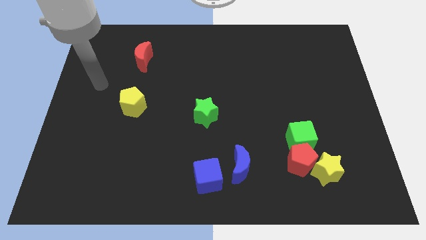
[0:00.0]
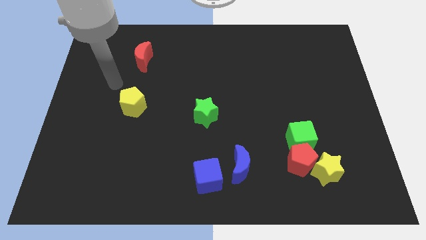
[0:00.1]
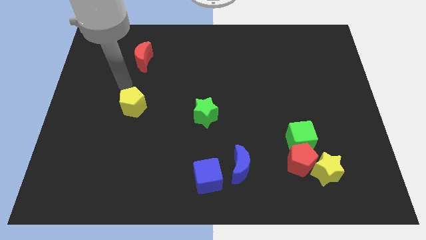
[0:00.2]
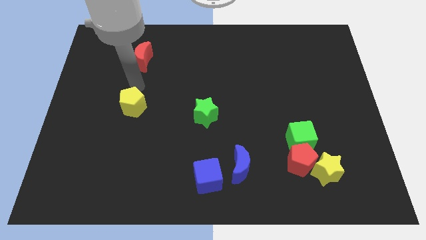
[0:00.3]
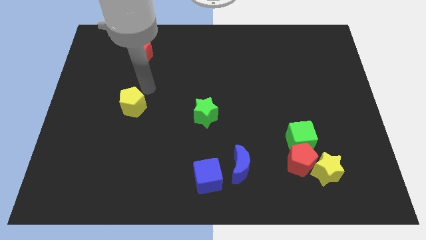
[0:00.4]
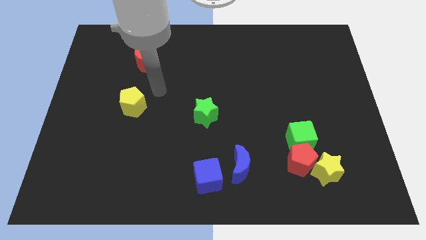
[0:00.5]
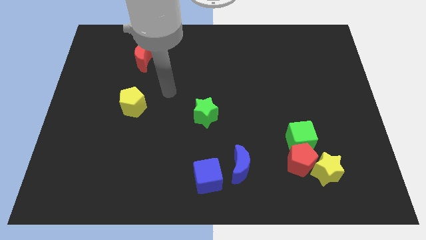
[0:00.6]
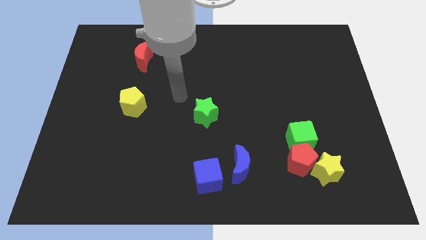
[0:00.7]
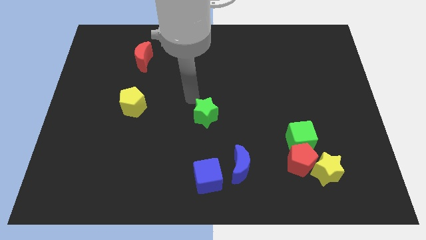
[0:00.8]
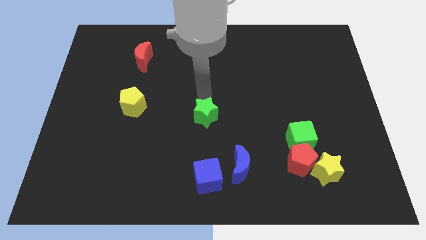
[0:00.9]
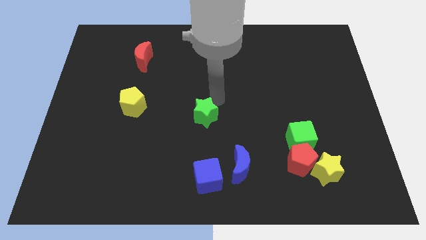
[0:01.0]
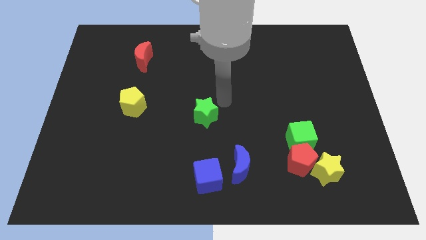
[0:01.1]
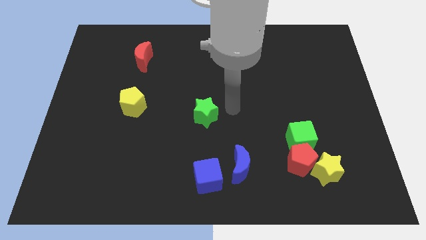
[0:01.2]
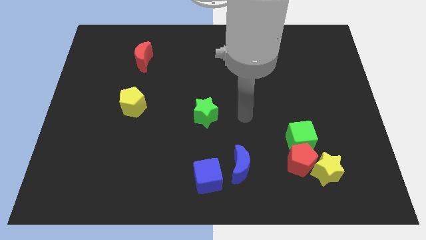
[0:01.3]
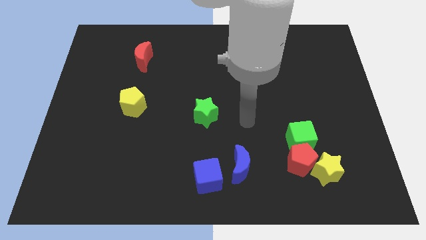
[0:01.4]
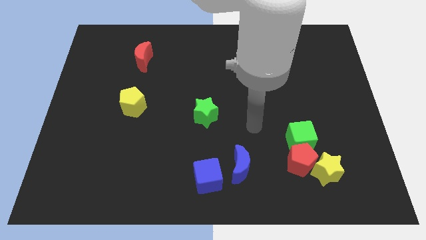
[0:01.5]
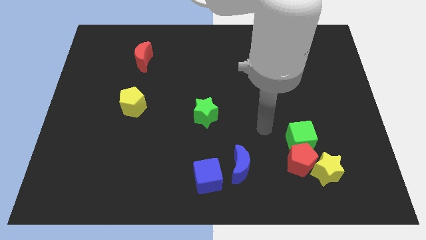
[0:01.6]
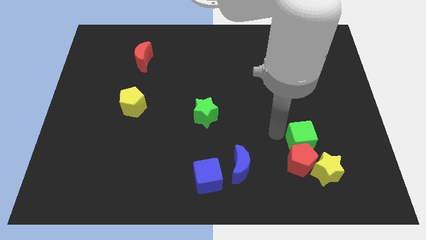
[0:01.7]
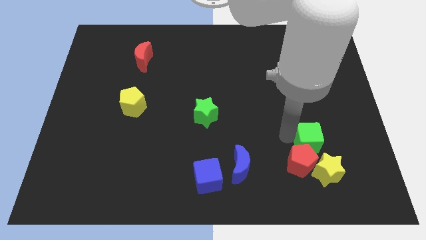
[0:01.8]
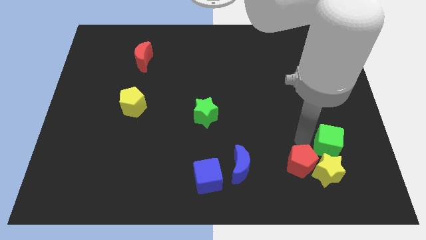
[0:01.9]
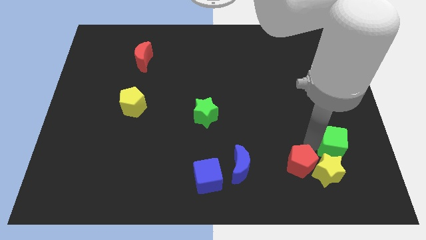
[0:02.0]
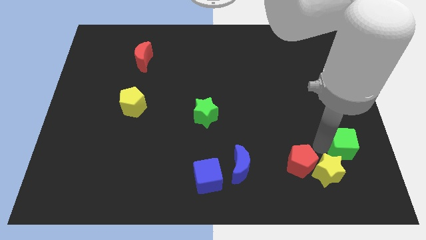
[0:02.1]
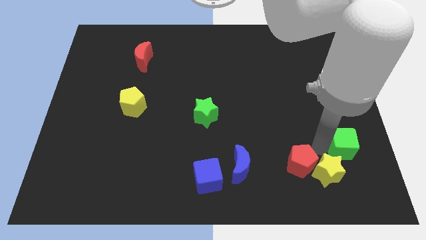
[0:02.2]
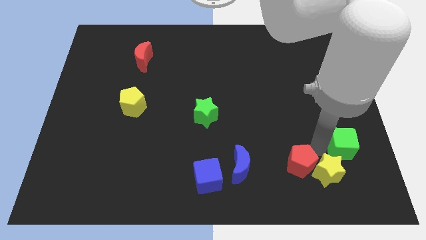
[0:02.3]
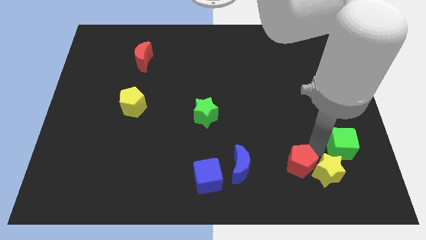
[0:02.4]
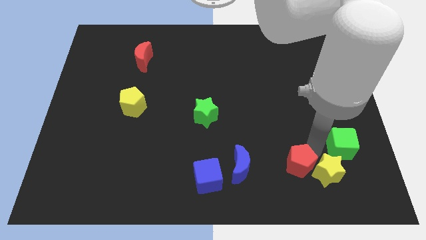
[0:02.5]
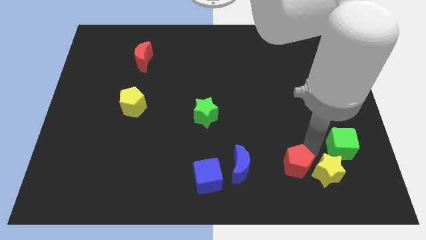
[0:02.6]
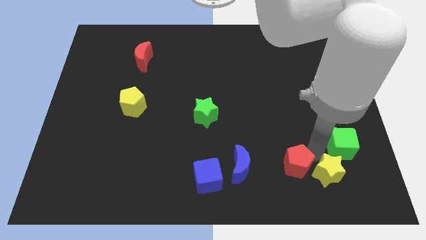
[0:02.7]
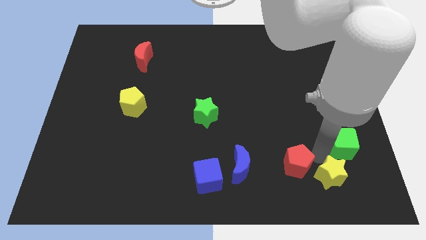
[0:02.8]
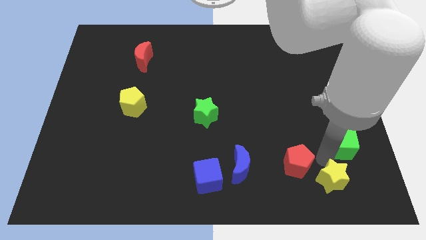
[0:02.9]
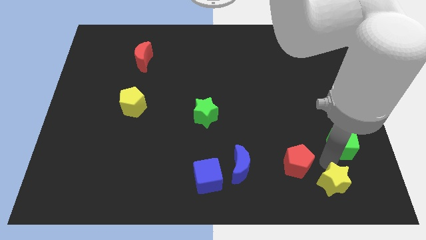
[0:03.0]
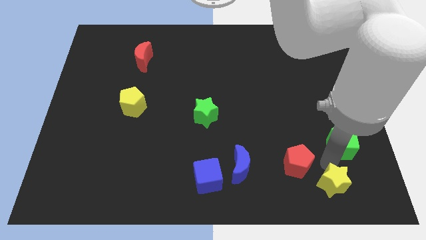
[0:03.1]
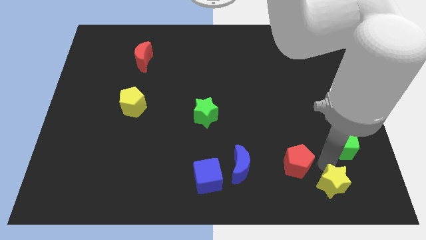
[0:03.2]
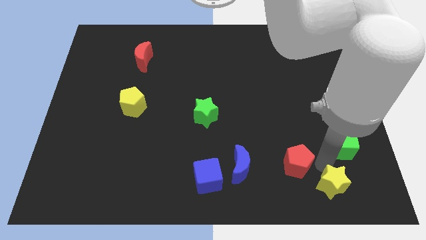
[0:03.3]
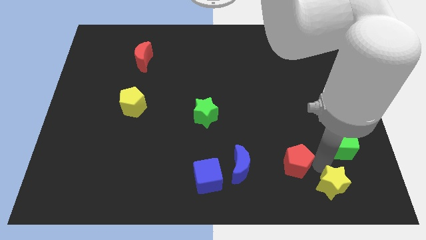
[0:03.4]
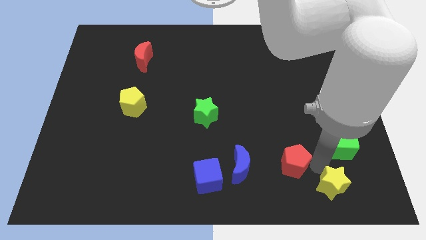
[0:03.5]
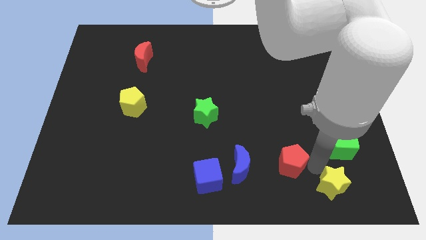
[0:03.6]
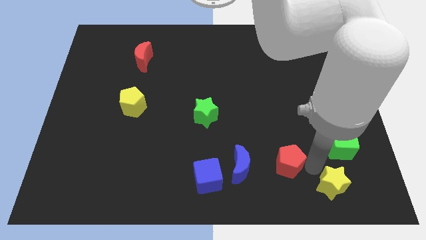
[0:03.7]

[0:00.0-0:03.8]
move the red pentagon away from the green cube and yellow star

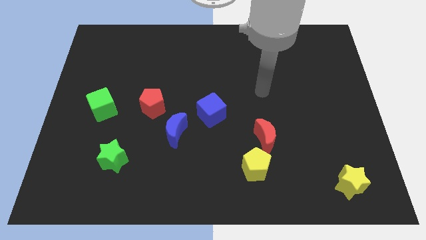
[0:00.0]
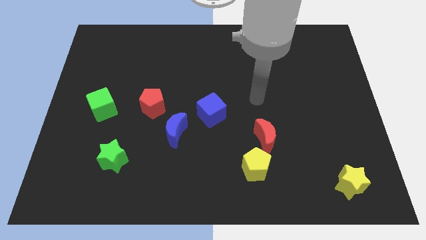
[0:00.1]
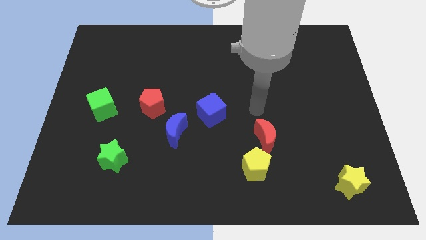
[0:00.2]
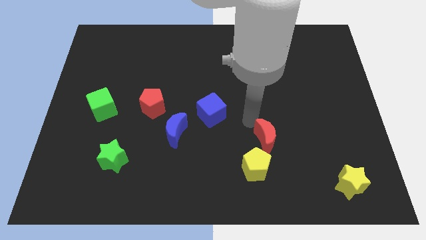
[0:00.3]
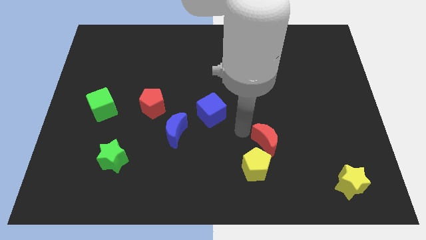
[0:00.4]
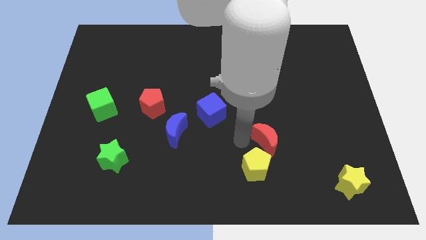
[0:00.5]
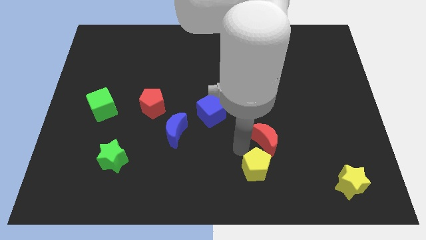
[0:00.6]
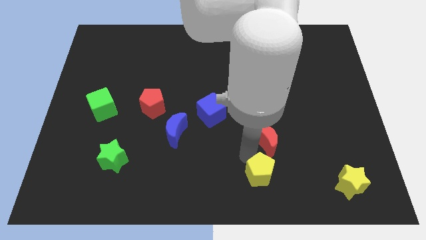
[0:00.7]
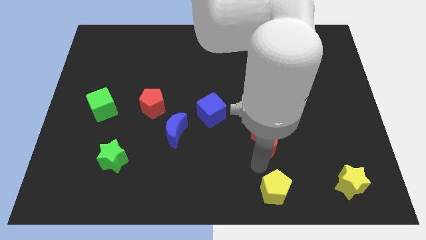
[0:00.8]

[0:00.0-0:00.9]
separate the red moon from the yellow pentagon

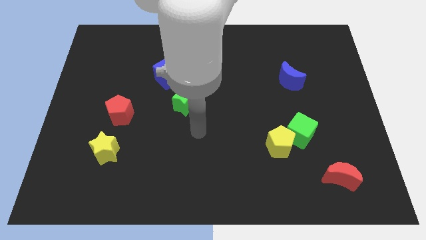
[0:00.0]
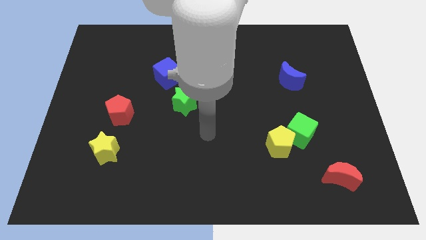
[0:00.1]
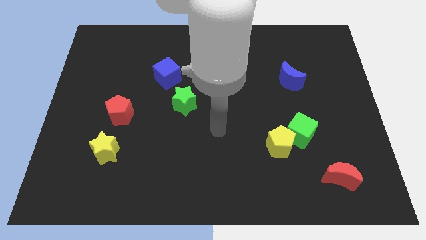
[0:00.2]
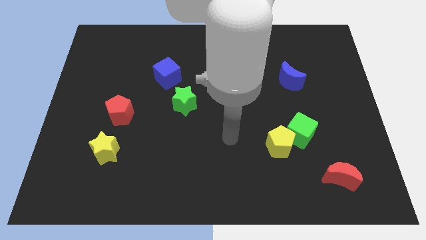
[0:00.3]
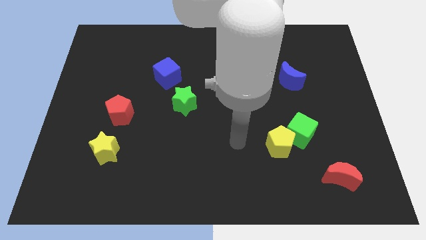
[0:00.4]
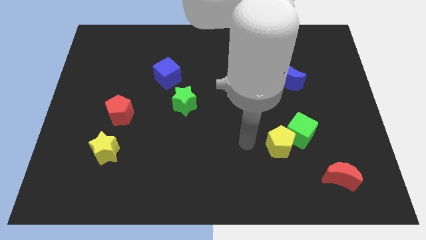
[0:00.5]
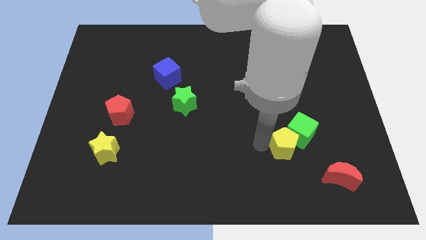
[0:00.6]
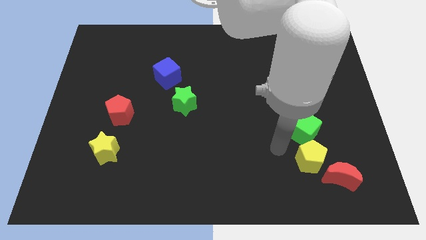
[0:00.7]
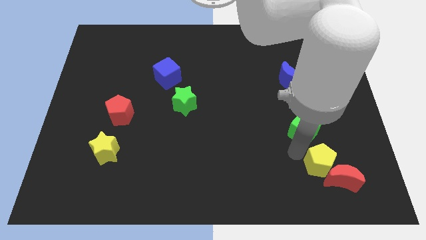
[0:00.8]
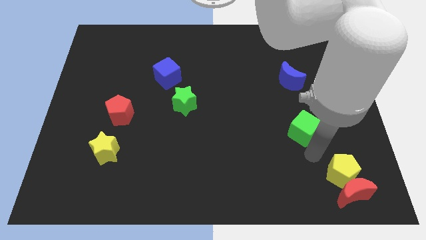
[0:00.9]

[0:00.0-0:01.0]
move the green cube away from the yellow pentagon

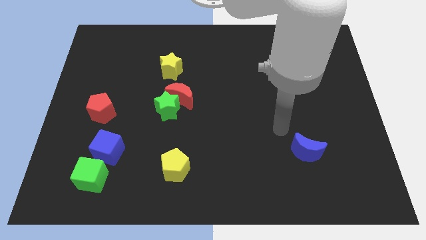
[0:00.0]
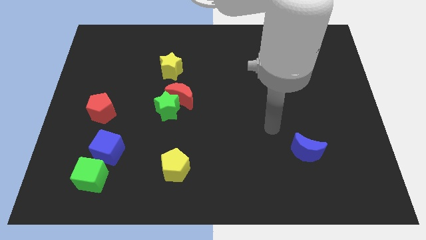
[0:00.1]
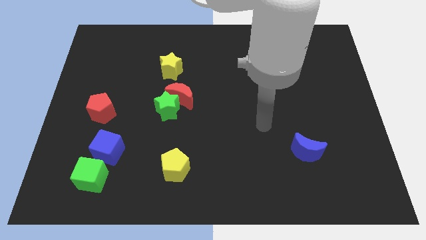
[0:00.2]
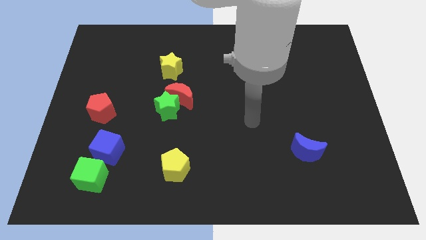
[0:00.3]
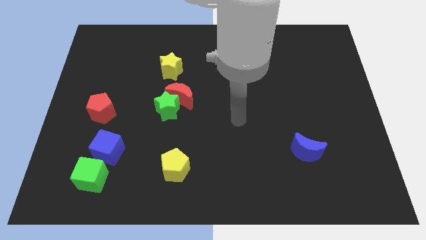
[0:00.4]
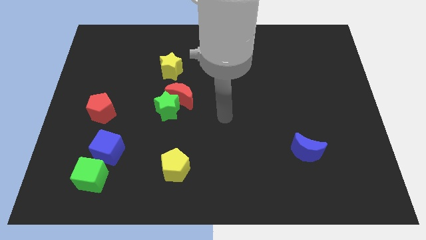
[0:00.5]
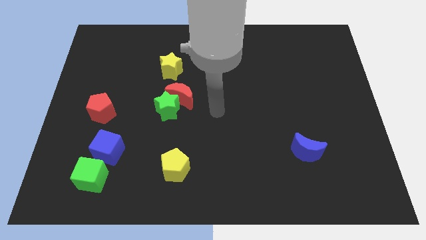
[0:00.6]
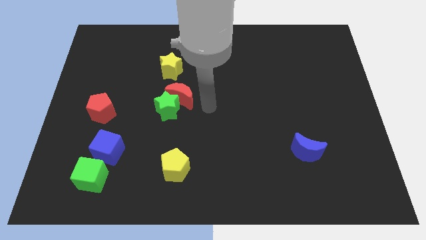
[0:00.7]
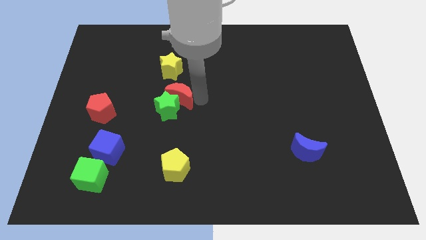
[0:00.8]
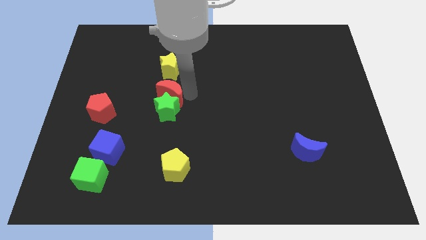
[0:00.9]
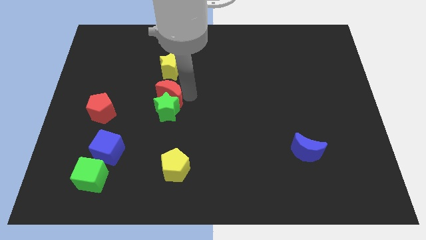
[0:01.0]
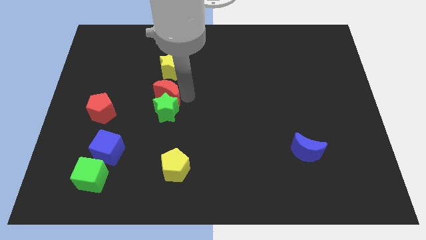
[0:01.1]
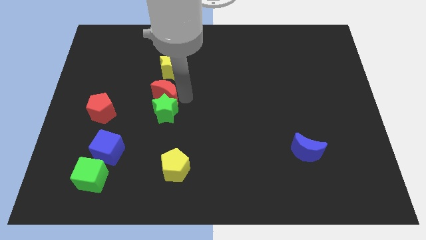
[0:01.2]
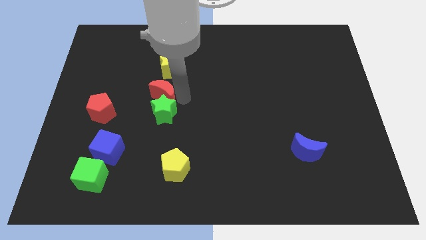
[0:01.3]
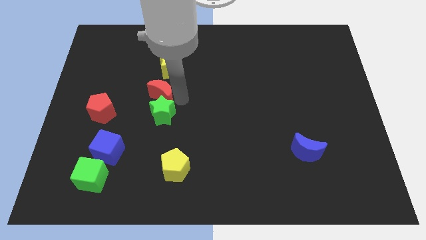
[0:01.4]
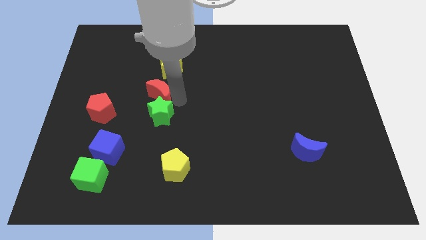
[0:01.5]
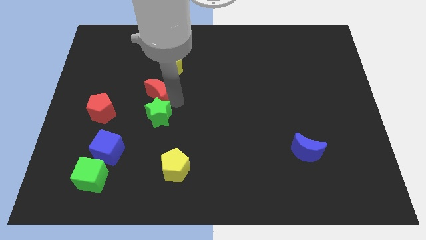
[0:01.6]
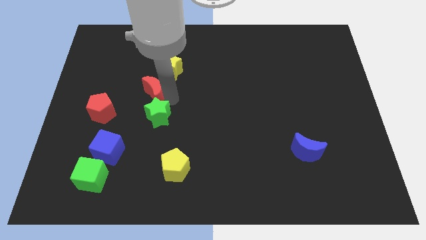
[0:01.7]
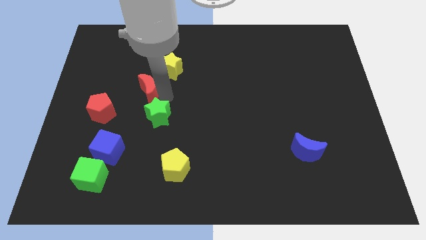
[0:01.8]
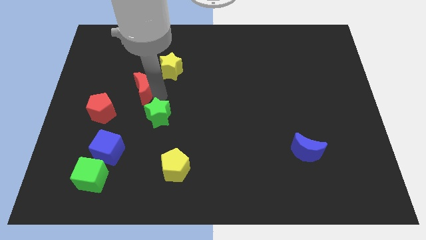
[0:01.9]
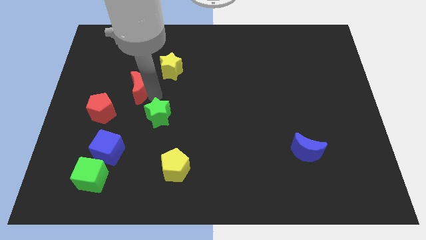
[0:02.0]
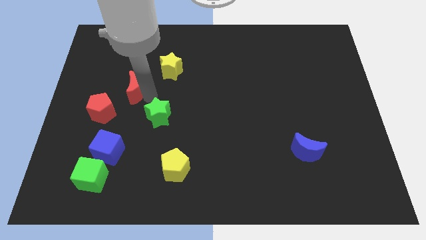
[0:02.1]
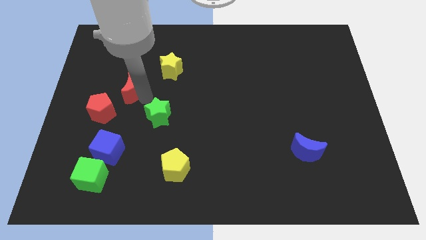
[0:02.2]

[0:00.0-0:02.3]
separate the green star from the red moon

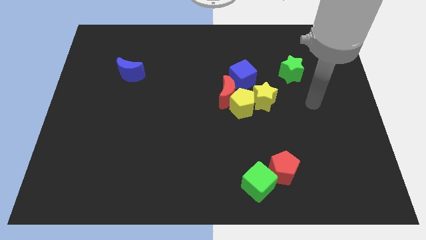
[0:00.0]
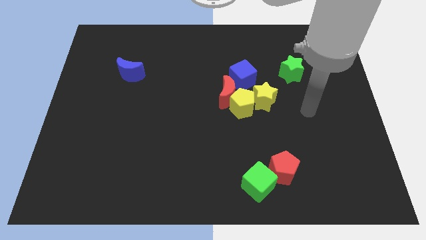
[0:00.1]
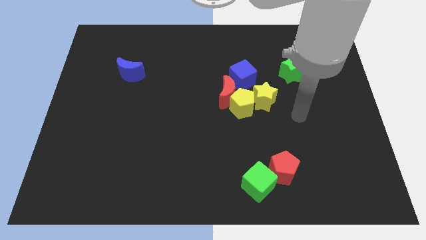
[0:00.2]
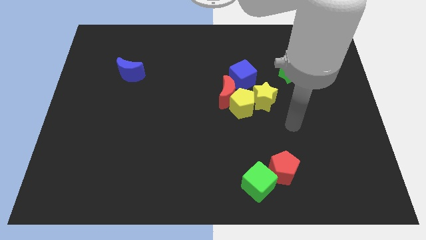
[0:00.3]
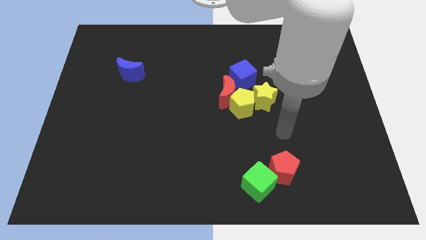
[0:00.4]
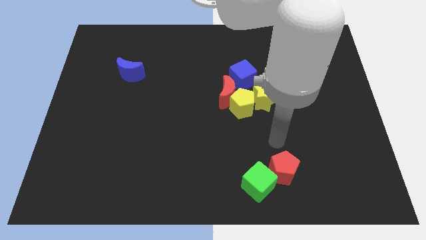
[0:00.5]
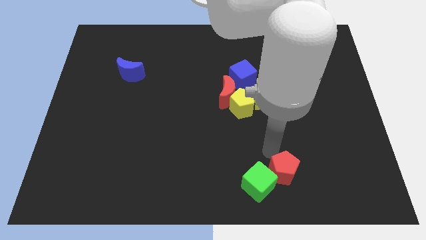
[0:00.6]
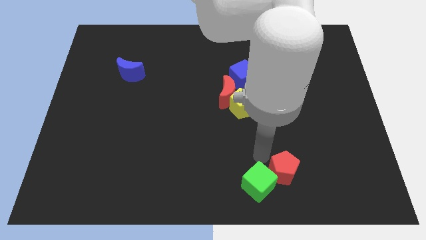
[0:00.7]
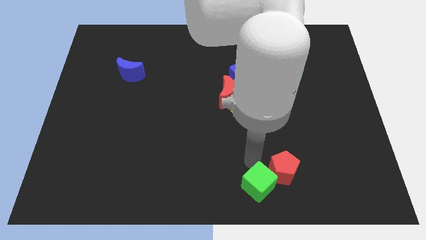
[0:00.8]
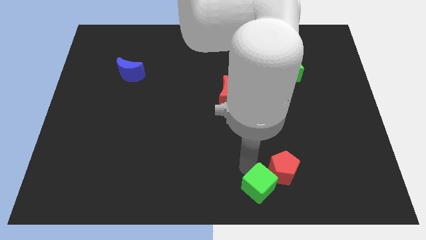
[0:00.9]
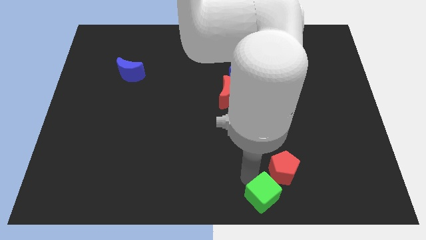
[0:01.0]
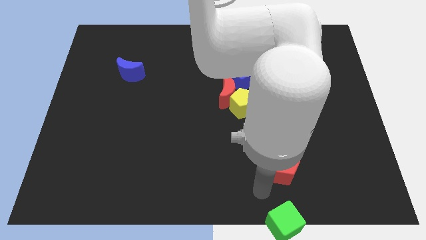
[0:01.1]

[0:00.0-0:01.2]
move the red pentagon away from the green cube
